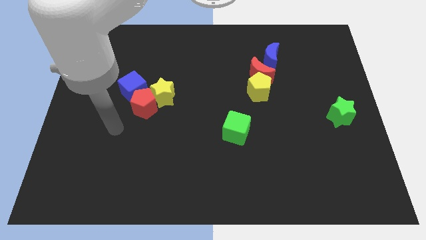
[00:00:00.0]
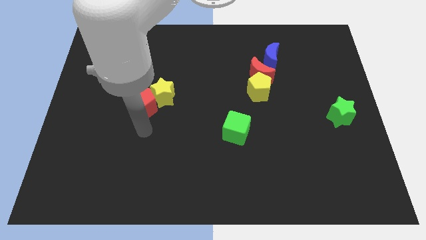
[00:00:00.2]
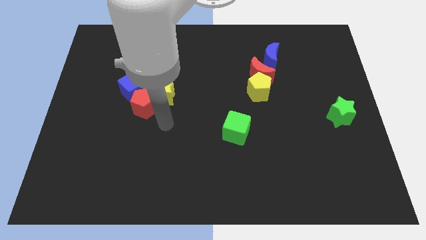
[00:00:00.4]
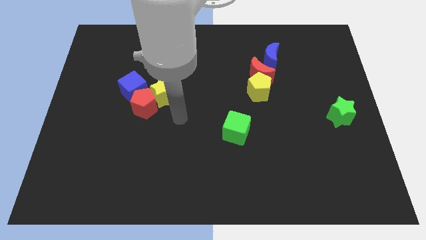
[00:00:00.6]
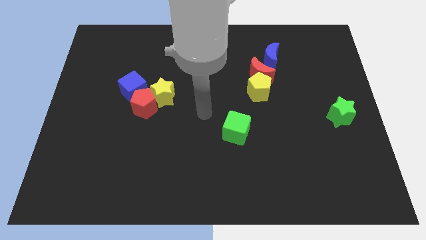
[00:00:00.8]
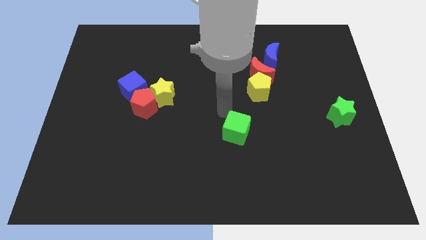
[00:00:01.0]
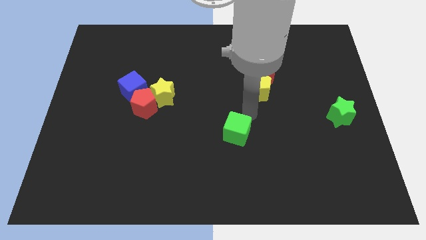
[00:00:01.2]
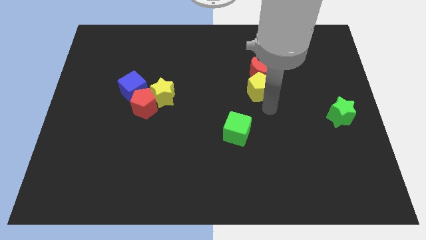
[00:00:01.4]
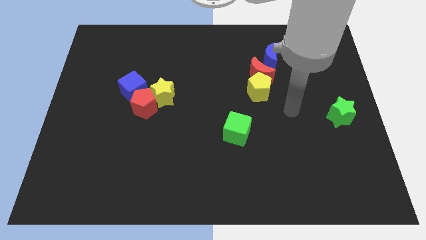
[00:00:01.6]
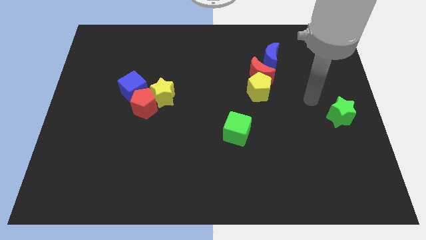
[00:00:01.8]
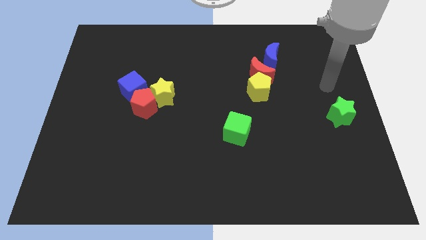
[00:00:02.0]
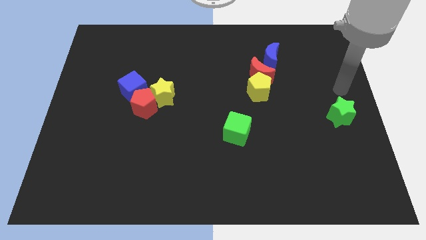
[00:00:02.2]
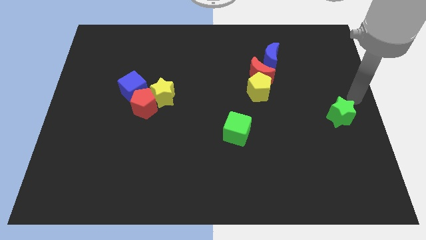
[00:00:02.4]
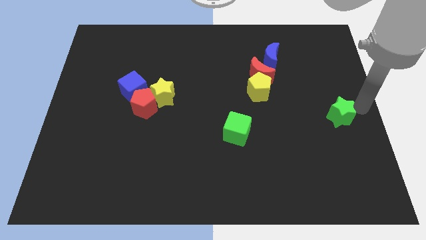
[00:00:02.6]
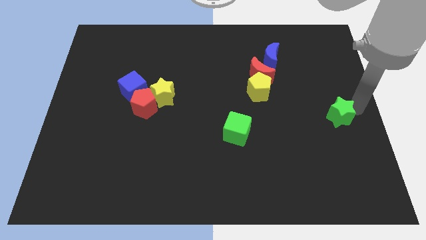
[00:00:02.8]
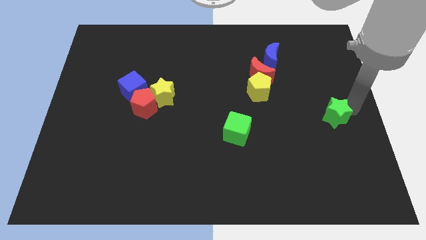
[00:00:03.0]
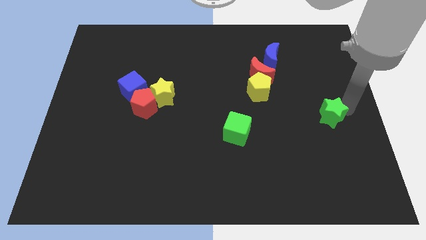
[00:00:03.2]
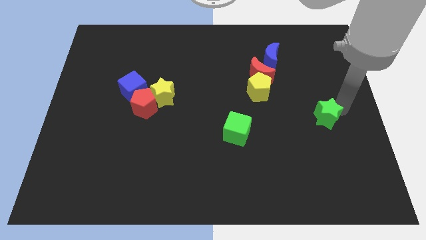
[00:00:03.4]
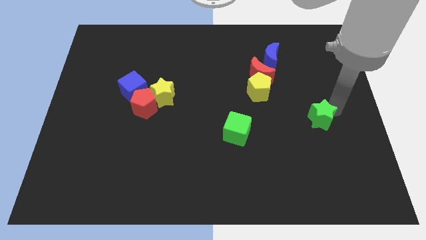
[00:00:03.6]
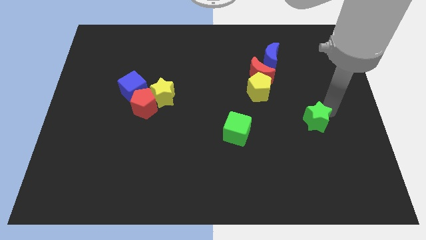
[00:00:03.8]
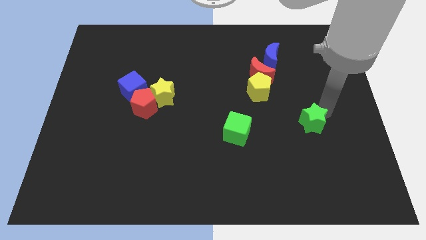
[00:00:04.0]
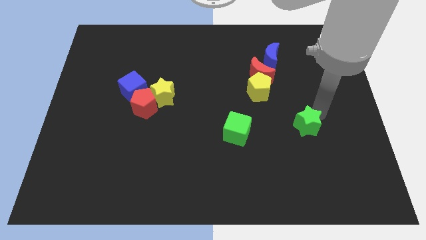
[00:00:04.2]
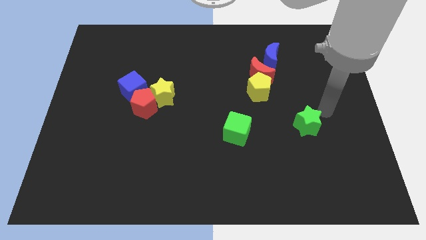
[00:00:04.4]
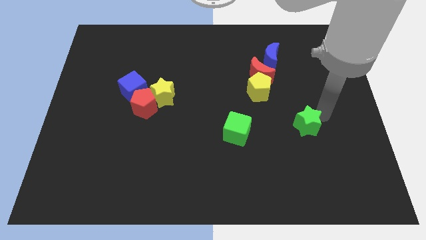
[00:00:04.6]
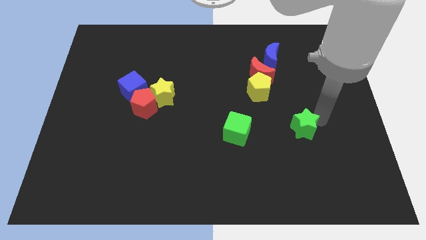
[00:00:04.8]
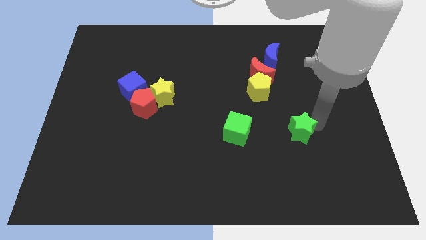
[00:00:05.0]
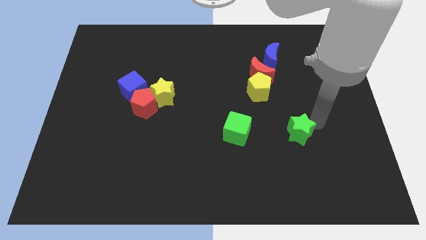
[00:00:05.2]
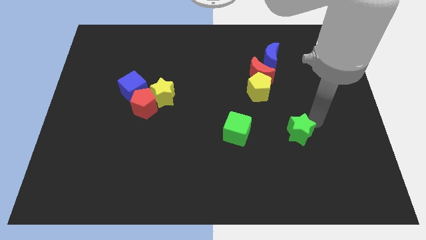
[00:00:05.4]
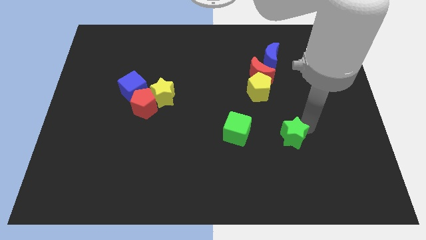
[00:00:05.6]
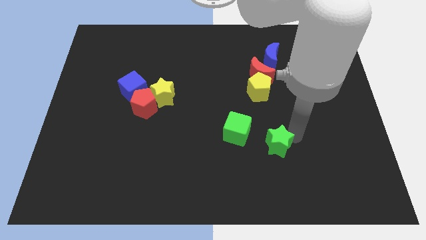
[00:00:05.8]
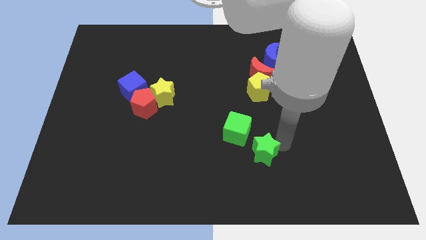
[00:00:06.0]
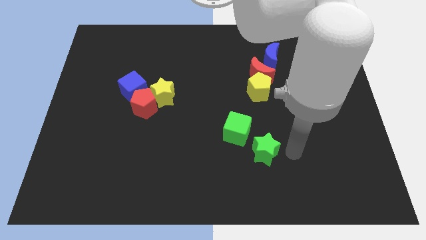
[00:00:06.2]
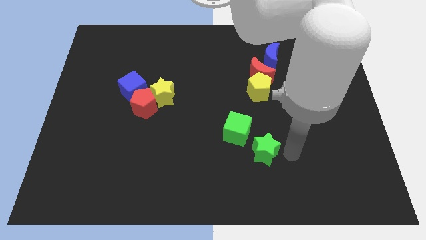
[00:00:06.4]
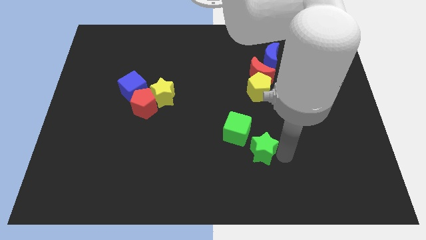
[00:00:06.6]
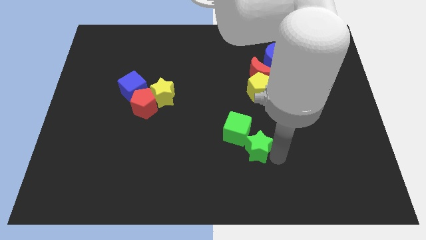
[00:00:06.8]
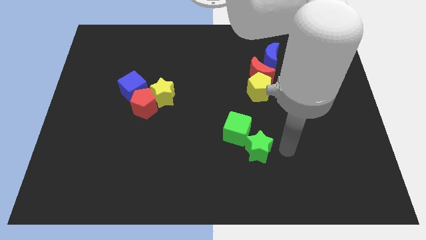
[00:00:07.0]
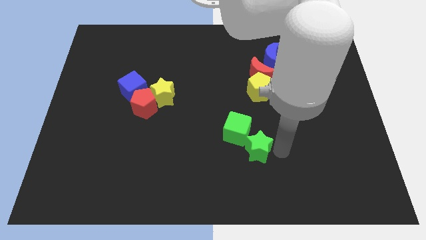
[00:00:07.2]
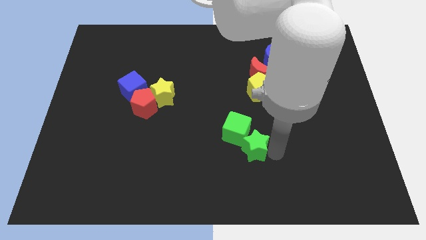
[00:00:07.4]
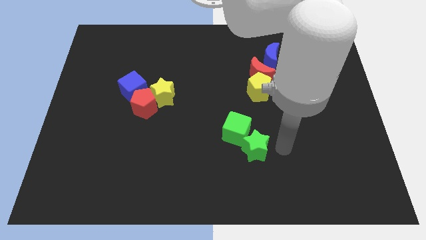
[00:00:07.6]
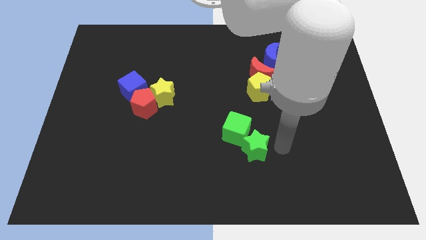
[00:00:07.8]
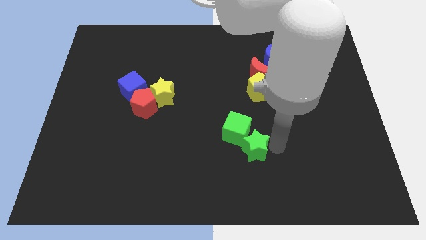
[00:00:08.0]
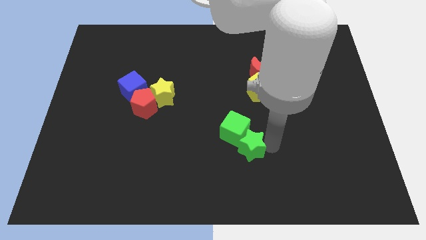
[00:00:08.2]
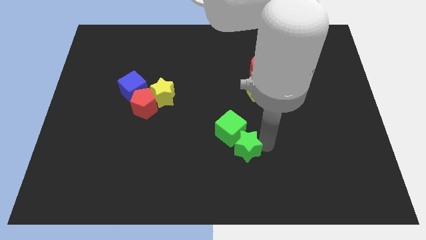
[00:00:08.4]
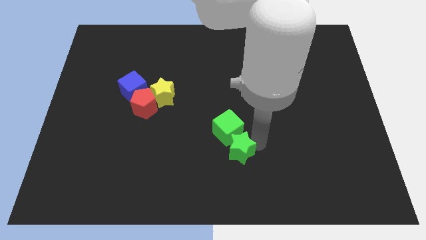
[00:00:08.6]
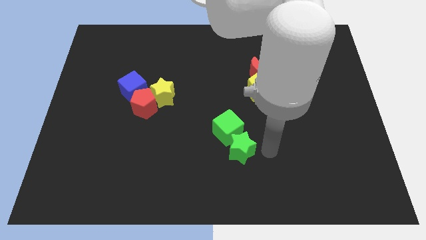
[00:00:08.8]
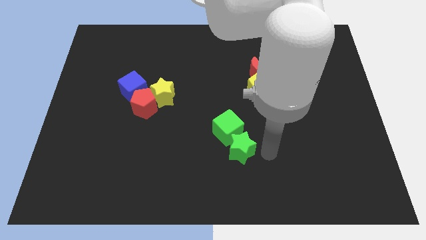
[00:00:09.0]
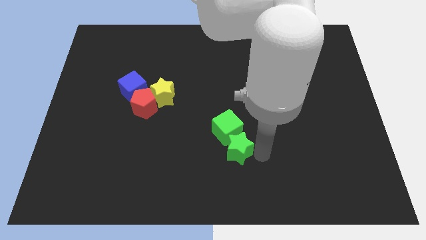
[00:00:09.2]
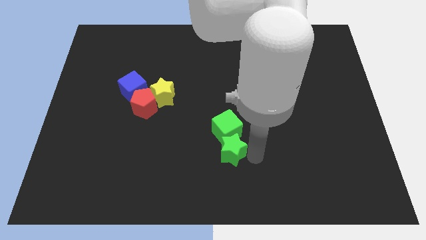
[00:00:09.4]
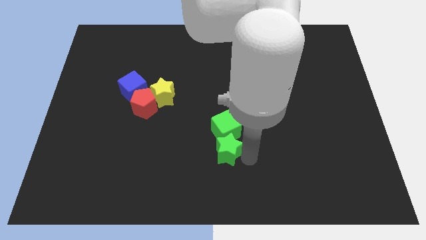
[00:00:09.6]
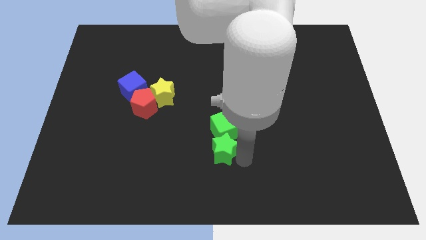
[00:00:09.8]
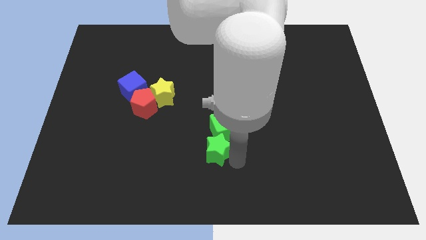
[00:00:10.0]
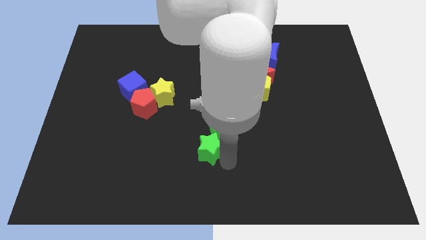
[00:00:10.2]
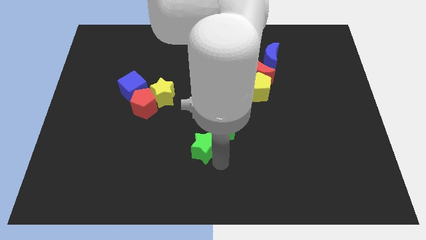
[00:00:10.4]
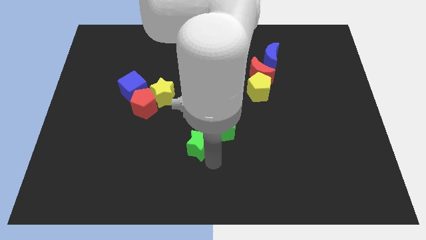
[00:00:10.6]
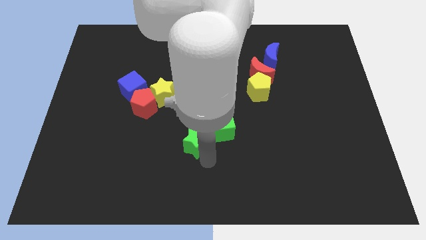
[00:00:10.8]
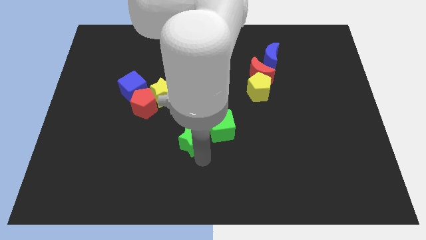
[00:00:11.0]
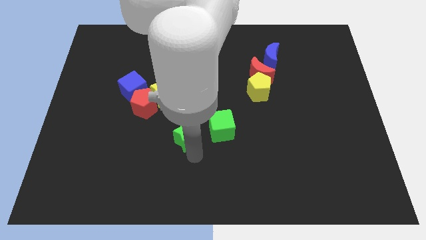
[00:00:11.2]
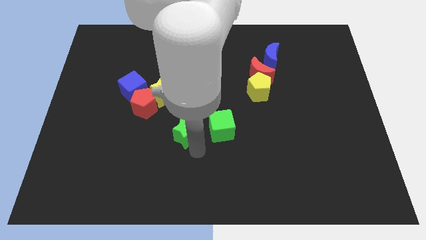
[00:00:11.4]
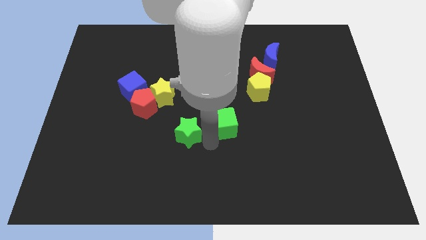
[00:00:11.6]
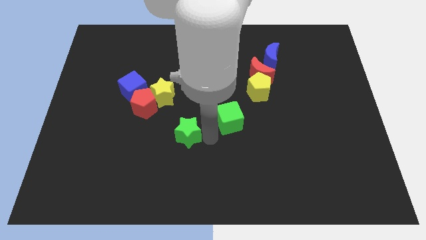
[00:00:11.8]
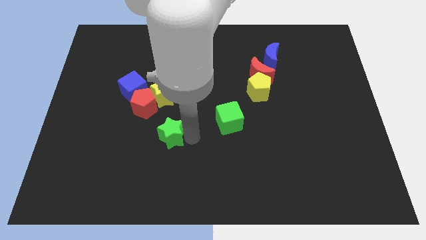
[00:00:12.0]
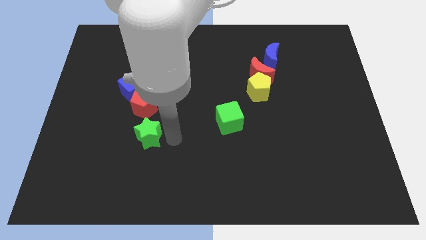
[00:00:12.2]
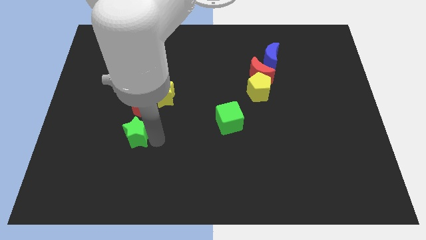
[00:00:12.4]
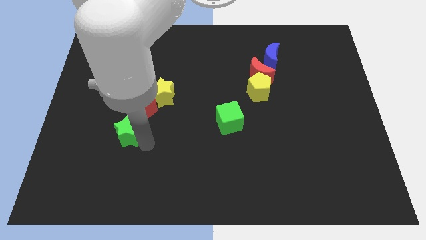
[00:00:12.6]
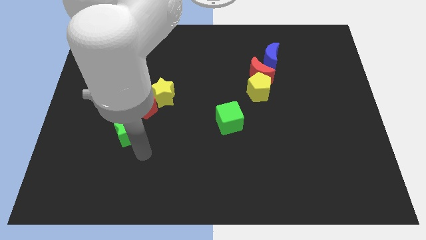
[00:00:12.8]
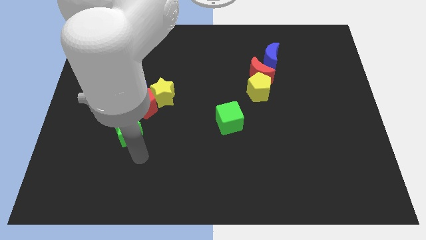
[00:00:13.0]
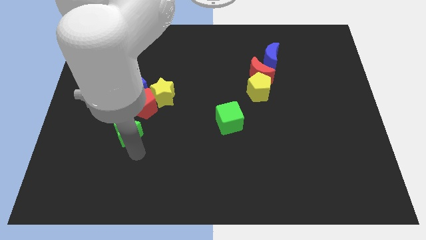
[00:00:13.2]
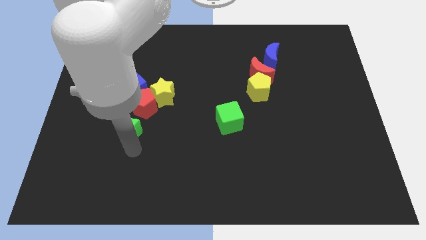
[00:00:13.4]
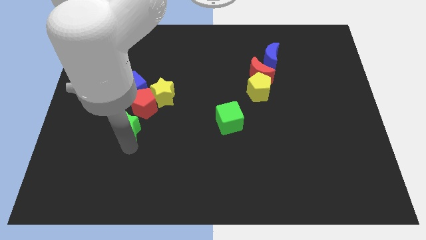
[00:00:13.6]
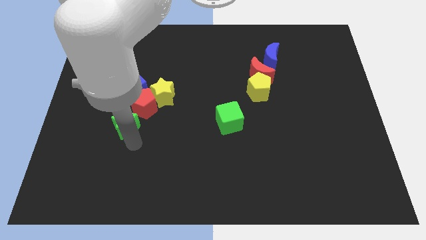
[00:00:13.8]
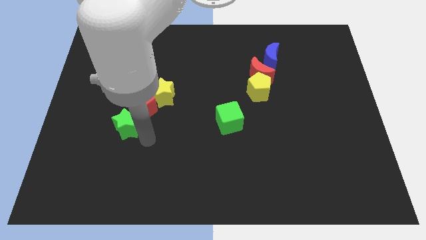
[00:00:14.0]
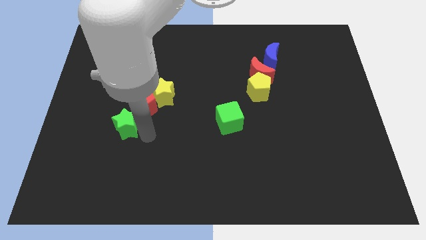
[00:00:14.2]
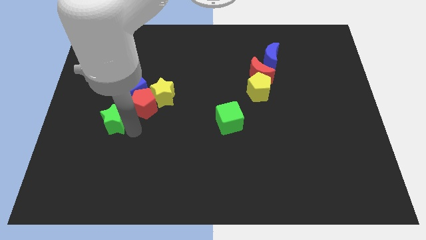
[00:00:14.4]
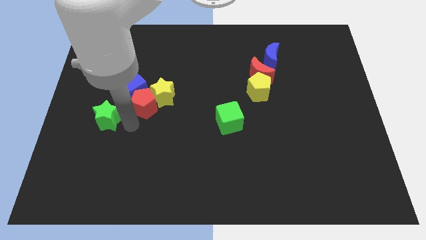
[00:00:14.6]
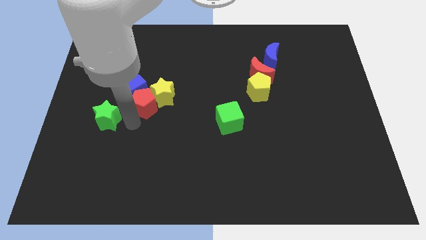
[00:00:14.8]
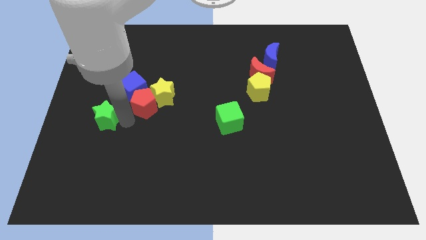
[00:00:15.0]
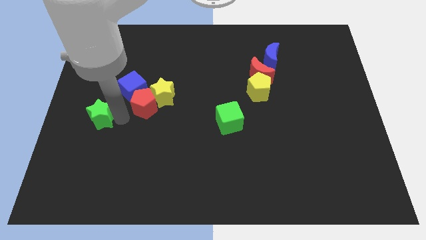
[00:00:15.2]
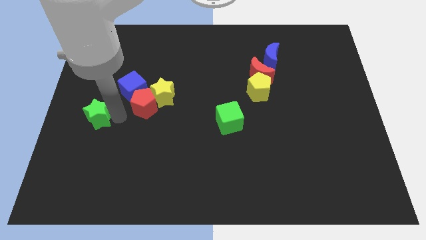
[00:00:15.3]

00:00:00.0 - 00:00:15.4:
move the green star to the center left
